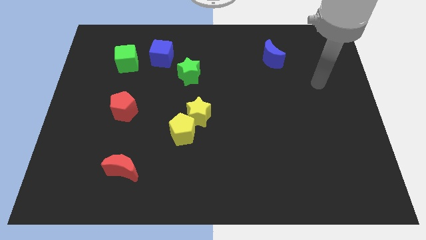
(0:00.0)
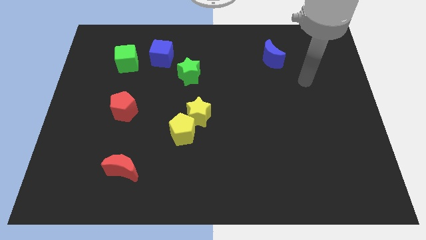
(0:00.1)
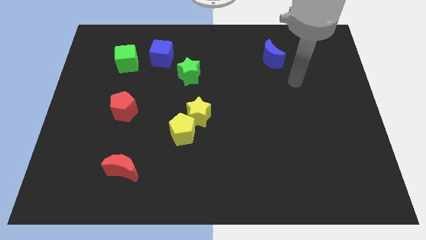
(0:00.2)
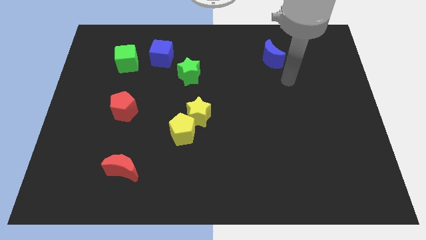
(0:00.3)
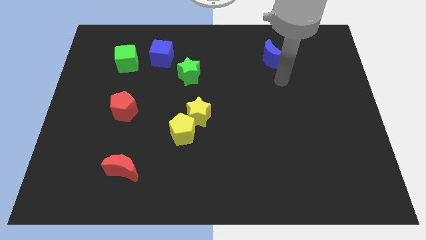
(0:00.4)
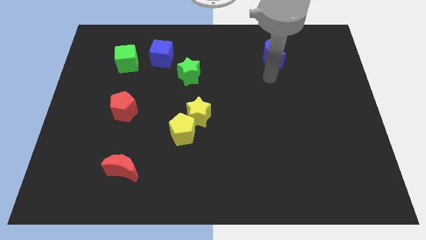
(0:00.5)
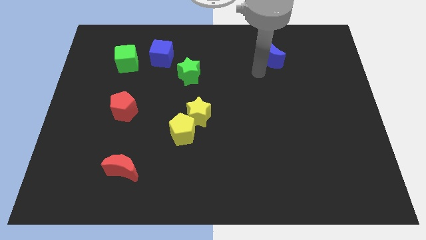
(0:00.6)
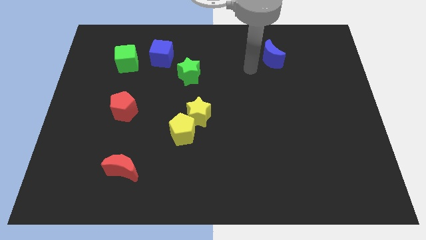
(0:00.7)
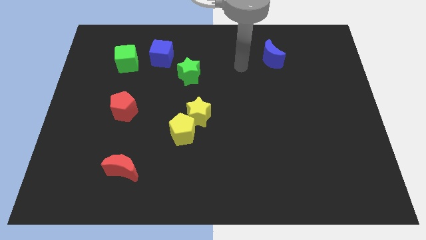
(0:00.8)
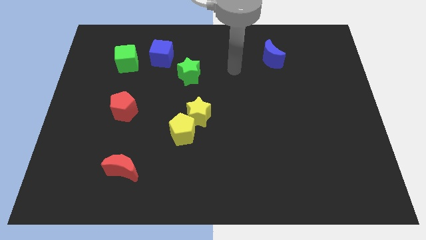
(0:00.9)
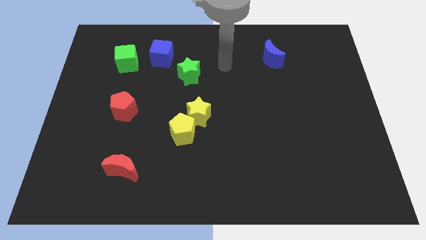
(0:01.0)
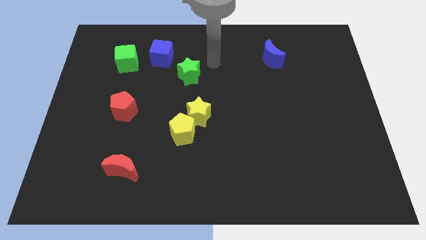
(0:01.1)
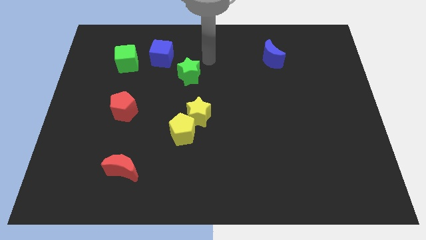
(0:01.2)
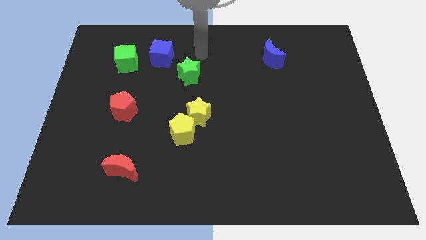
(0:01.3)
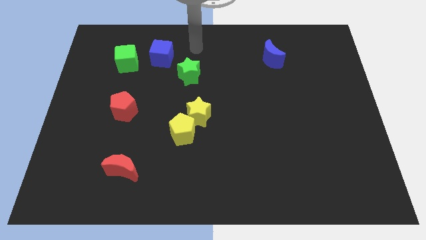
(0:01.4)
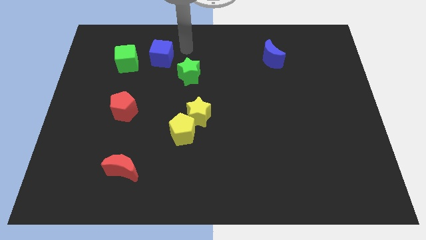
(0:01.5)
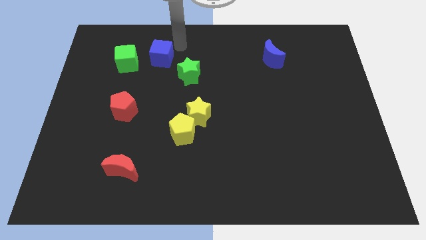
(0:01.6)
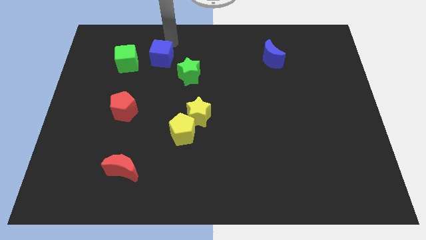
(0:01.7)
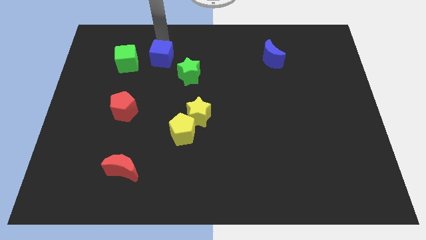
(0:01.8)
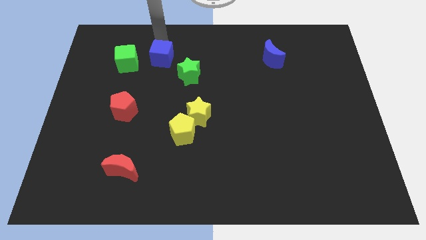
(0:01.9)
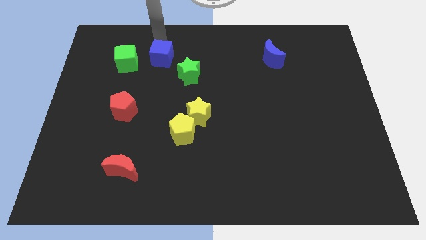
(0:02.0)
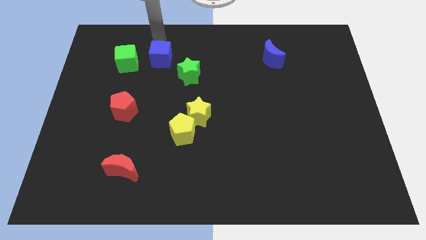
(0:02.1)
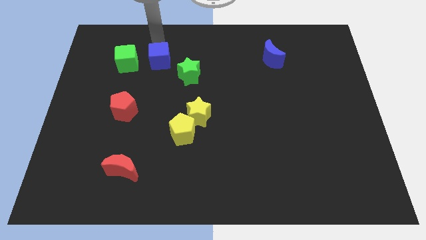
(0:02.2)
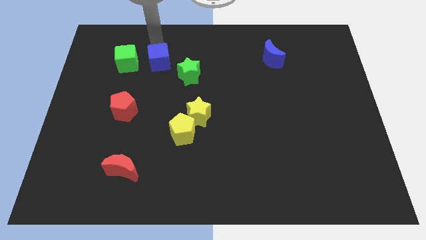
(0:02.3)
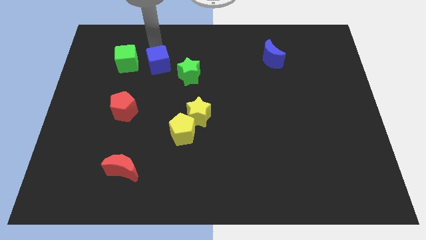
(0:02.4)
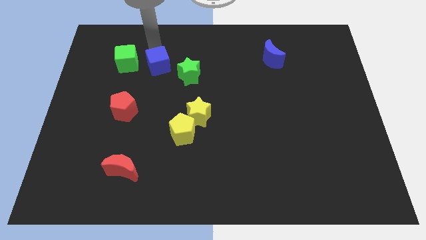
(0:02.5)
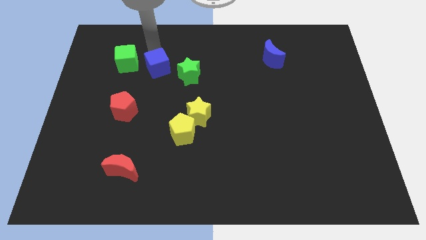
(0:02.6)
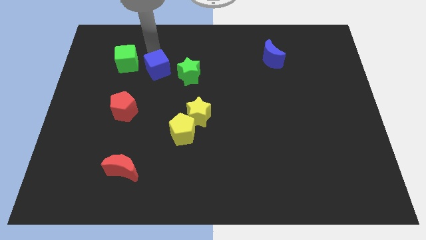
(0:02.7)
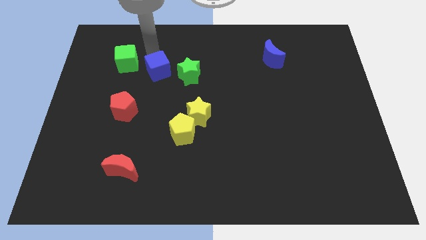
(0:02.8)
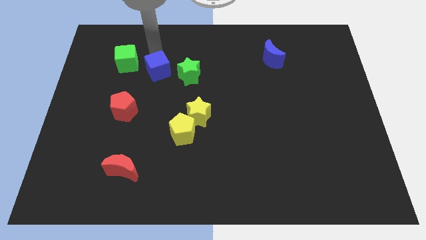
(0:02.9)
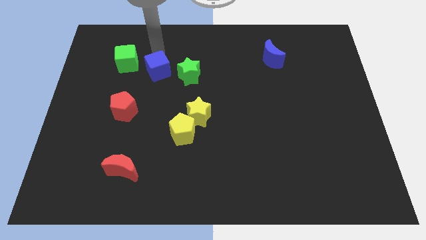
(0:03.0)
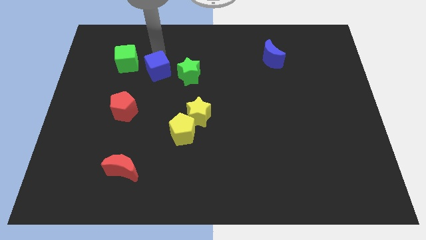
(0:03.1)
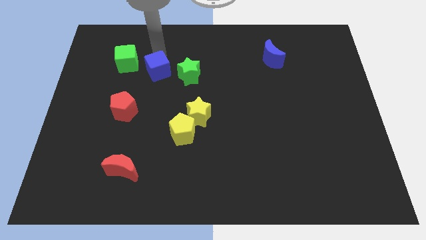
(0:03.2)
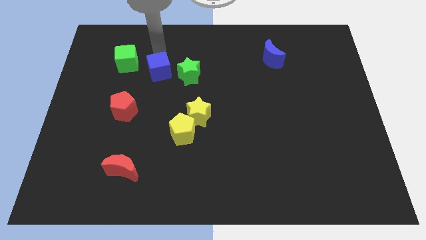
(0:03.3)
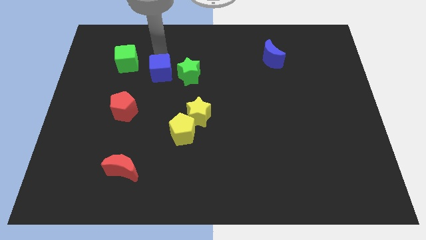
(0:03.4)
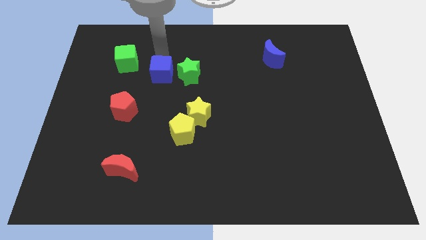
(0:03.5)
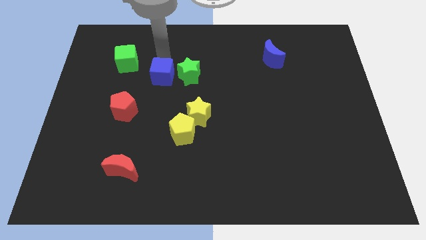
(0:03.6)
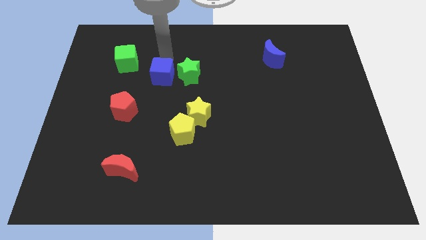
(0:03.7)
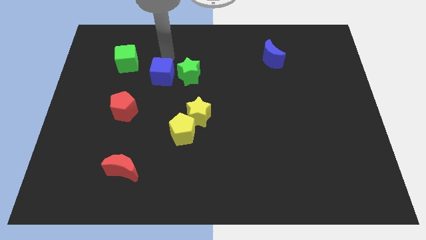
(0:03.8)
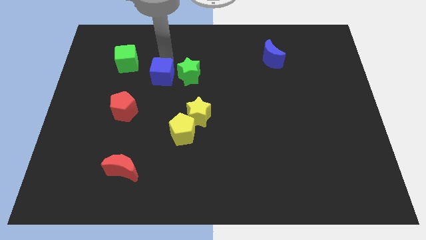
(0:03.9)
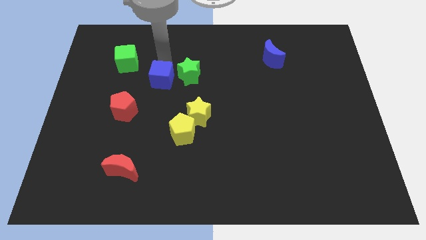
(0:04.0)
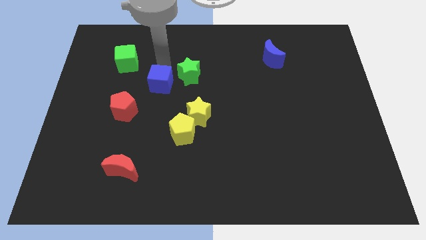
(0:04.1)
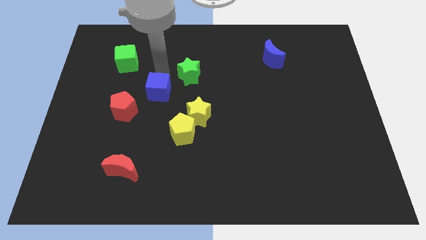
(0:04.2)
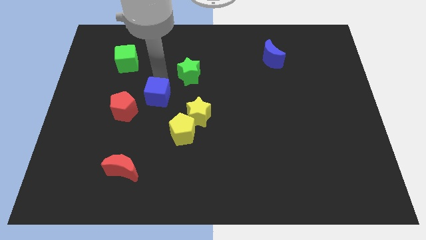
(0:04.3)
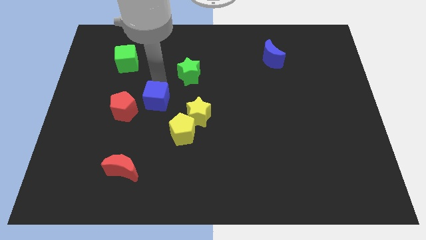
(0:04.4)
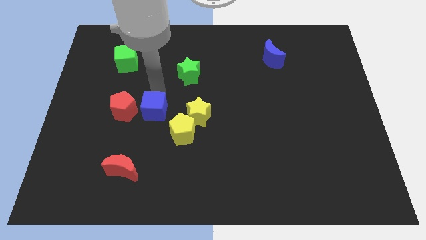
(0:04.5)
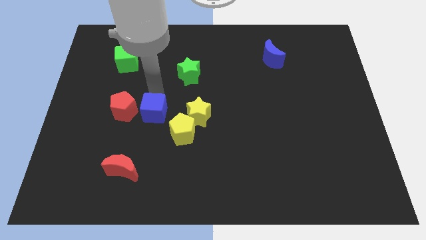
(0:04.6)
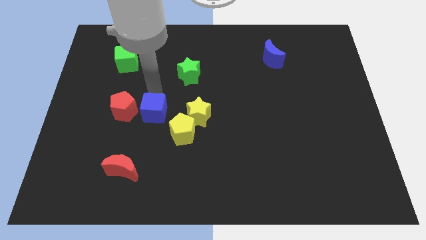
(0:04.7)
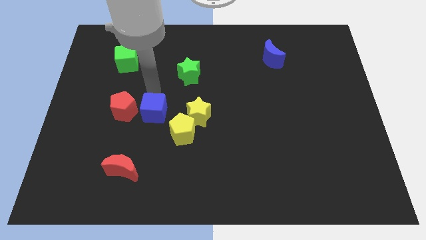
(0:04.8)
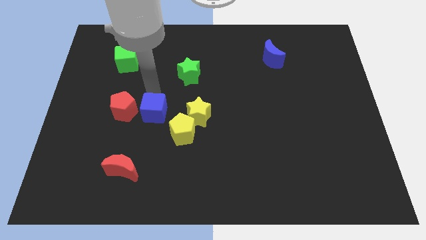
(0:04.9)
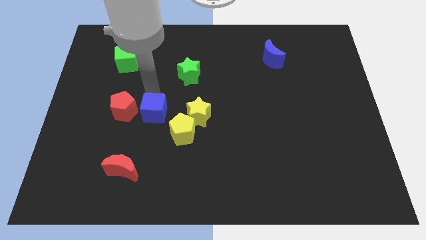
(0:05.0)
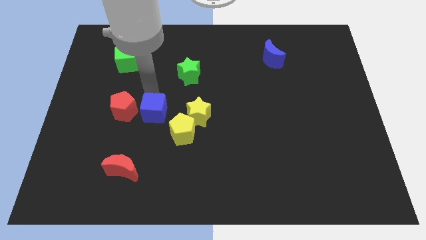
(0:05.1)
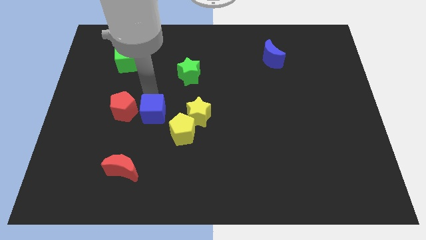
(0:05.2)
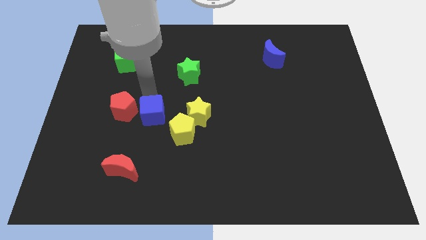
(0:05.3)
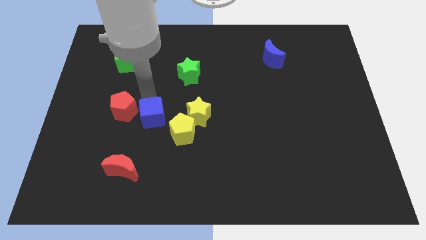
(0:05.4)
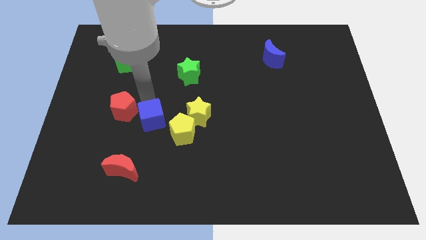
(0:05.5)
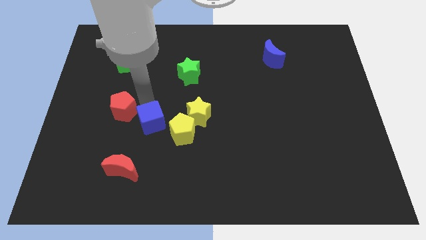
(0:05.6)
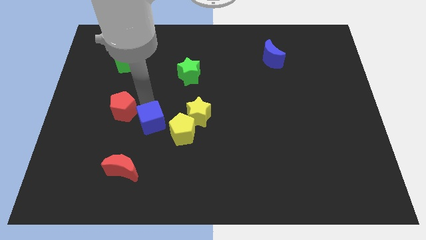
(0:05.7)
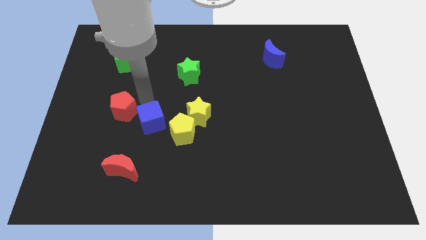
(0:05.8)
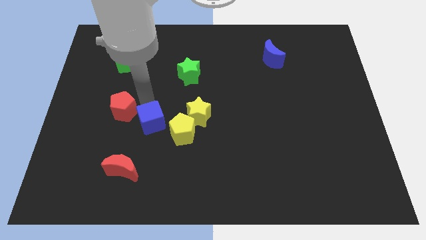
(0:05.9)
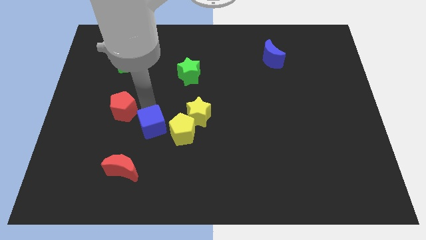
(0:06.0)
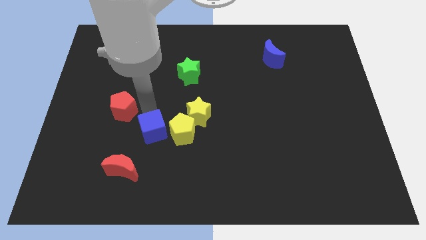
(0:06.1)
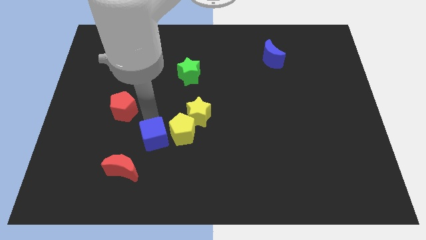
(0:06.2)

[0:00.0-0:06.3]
put the blue cube to the bottom left side of the yellow pentagon

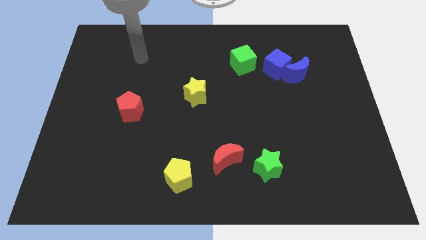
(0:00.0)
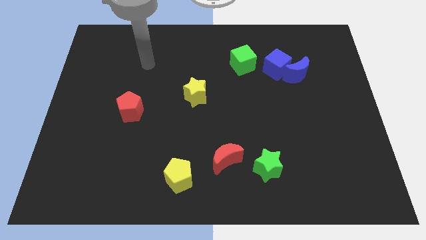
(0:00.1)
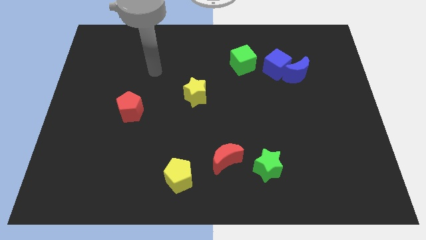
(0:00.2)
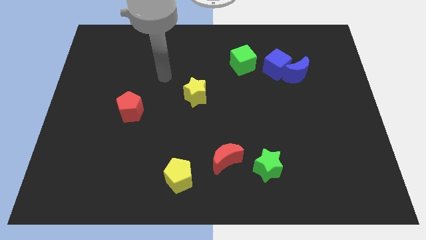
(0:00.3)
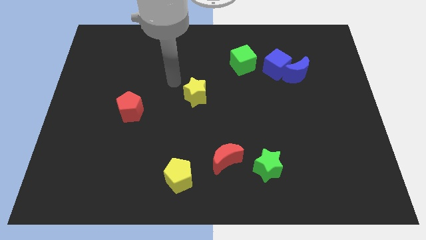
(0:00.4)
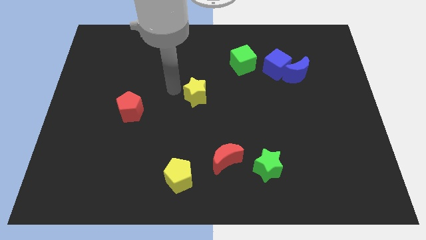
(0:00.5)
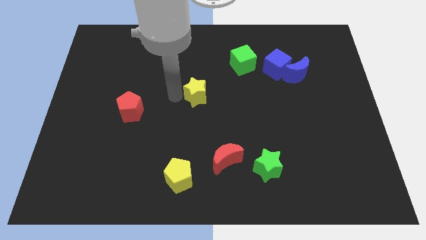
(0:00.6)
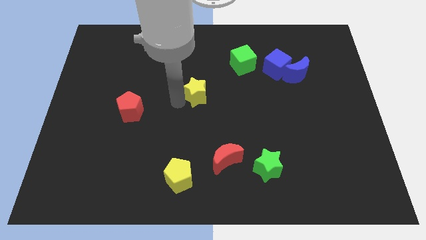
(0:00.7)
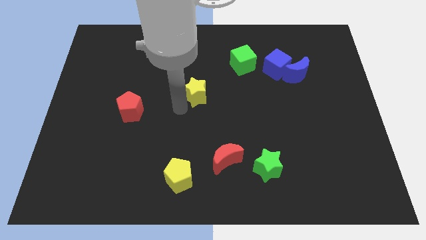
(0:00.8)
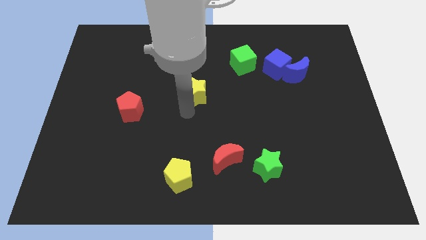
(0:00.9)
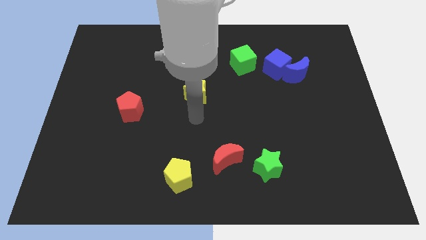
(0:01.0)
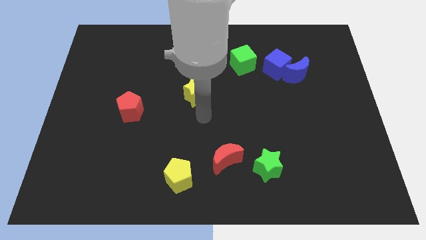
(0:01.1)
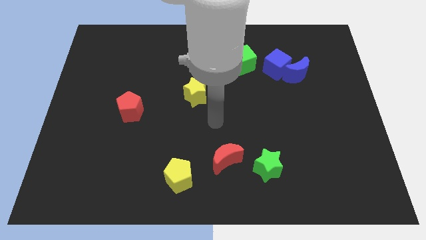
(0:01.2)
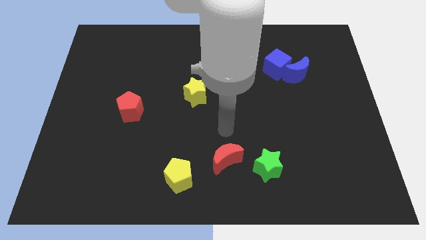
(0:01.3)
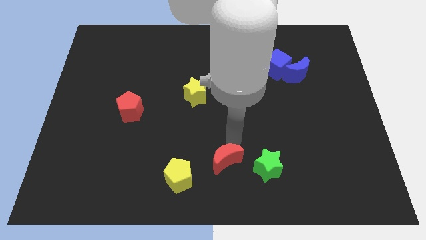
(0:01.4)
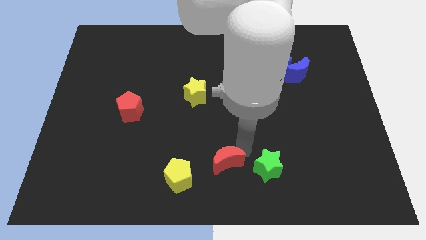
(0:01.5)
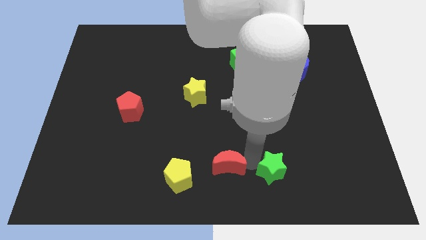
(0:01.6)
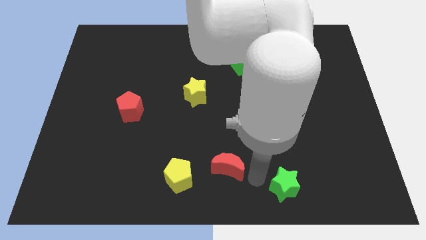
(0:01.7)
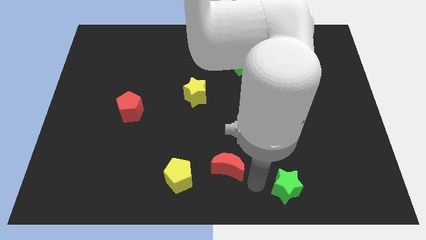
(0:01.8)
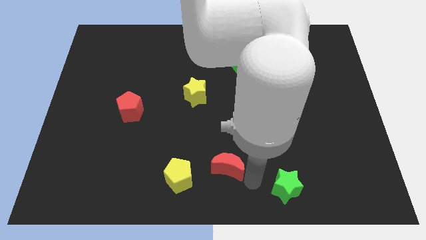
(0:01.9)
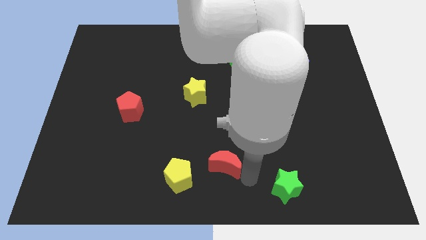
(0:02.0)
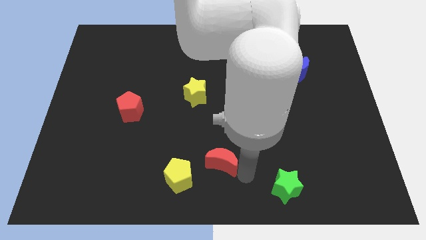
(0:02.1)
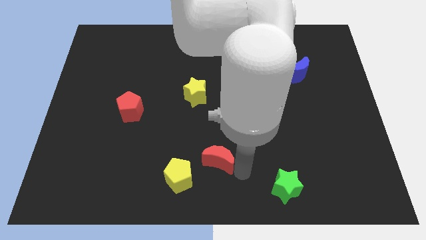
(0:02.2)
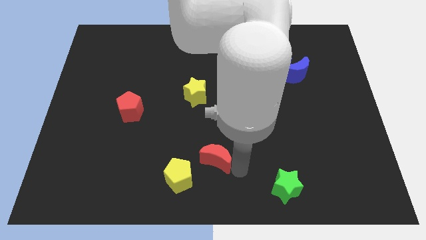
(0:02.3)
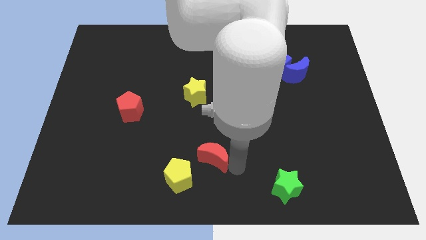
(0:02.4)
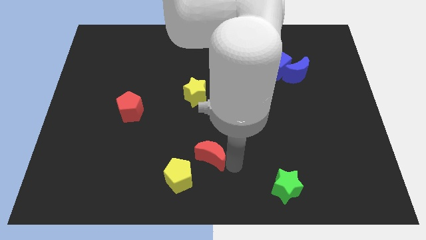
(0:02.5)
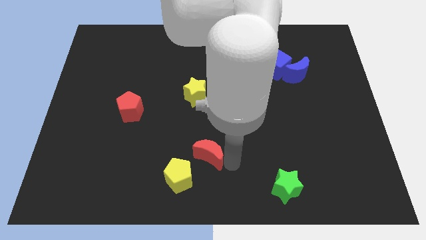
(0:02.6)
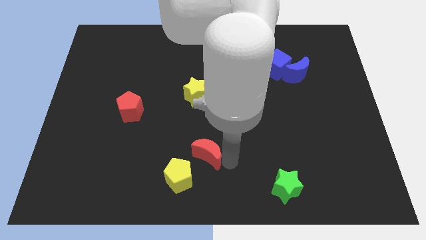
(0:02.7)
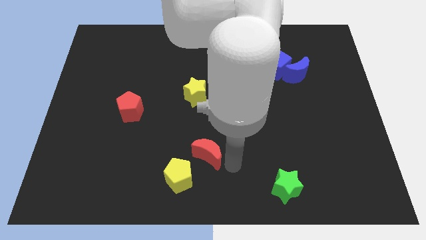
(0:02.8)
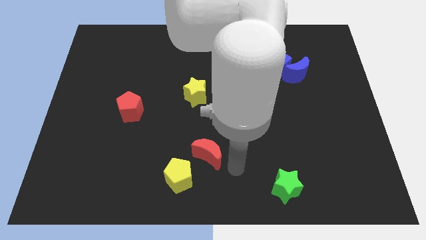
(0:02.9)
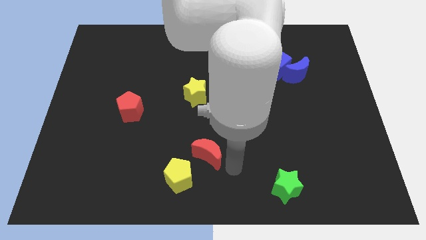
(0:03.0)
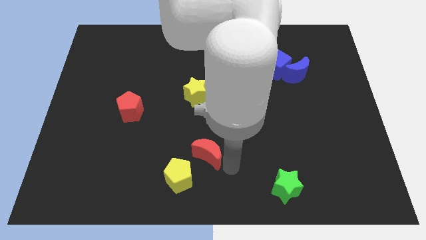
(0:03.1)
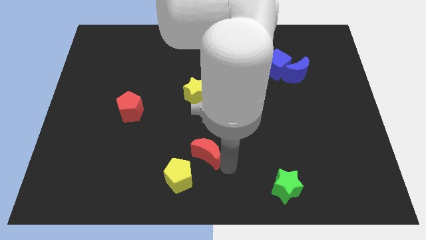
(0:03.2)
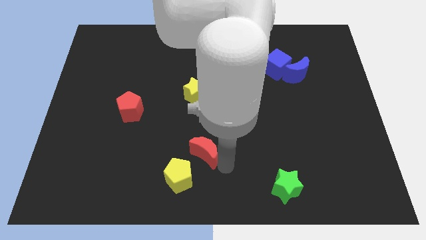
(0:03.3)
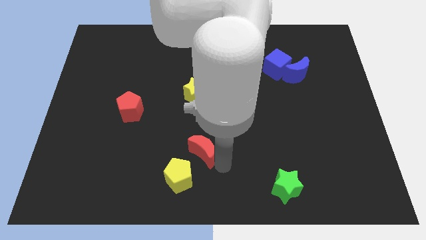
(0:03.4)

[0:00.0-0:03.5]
slide the red moon above the yellow pentagon
